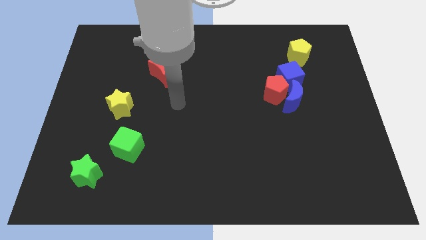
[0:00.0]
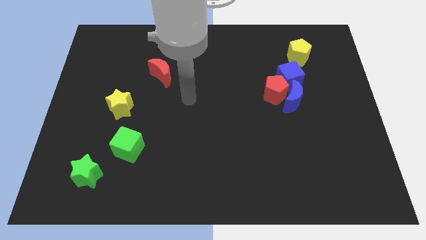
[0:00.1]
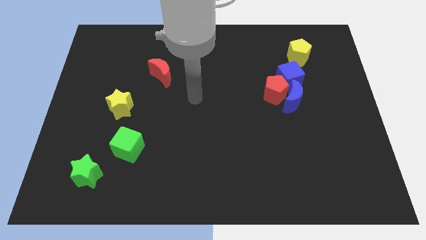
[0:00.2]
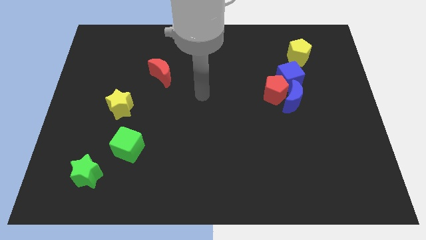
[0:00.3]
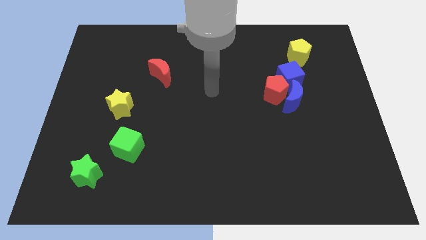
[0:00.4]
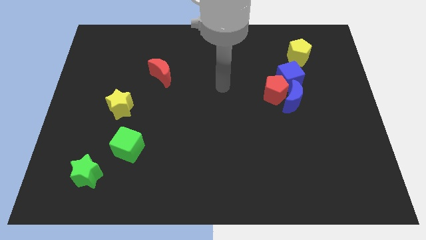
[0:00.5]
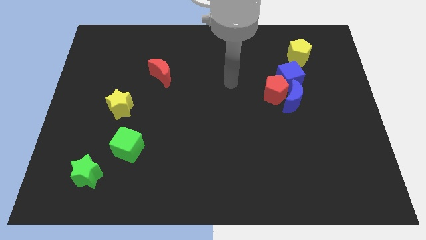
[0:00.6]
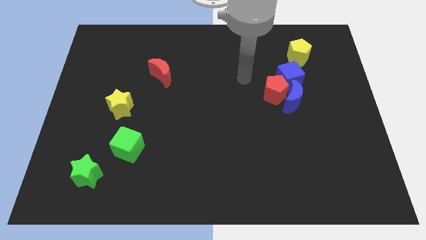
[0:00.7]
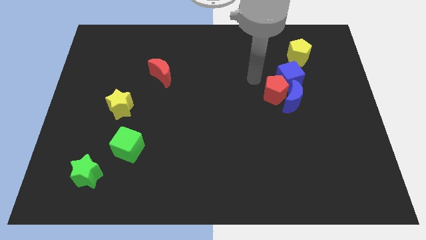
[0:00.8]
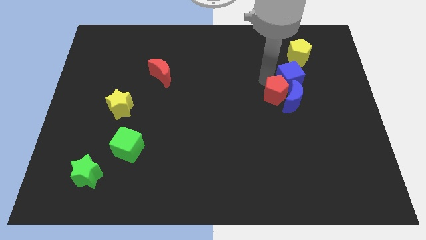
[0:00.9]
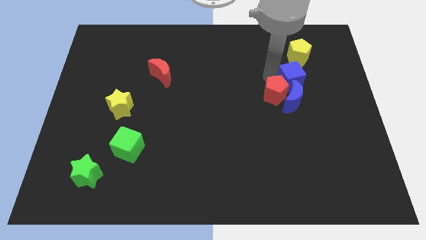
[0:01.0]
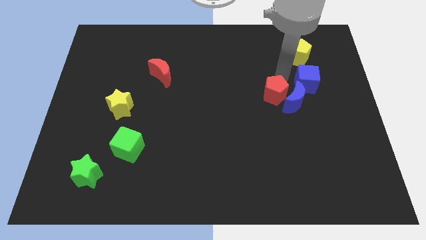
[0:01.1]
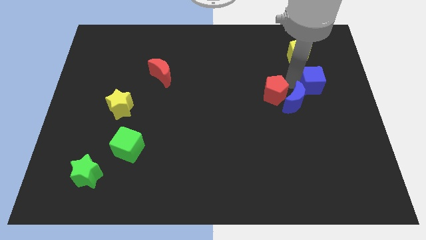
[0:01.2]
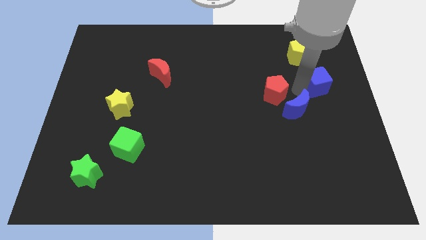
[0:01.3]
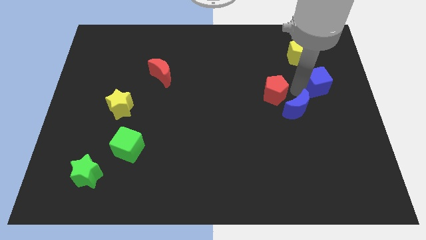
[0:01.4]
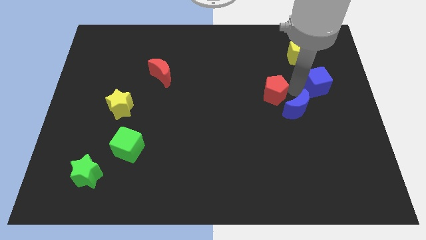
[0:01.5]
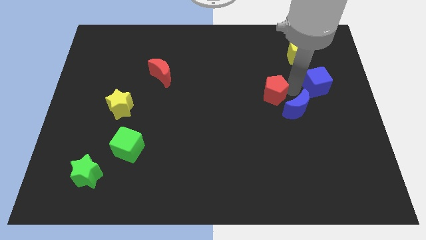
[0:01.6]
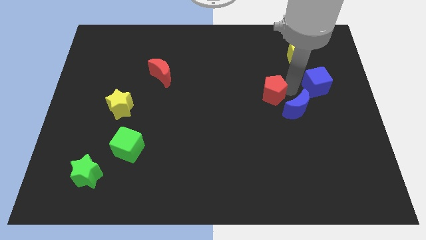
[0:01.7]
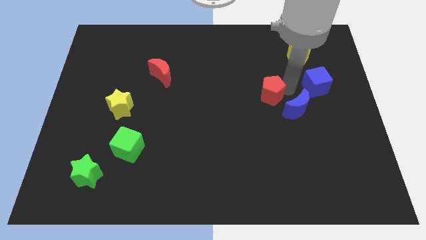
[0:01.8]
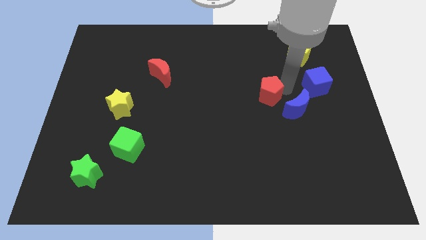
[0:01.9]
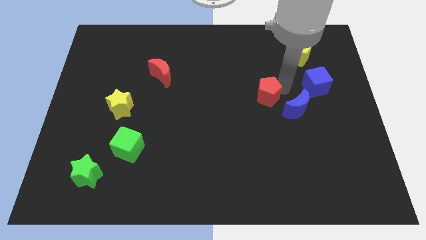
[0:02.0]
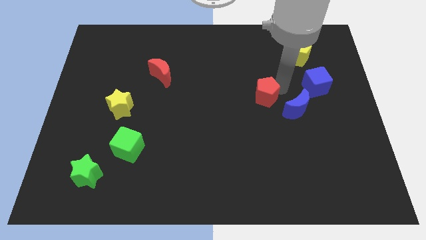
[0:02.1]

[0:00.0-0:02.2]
pull the red pentagon apart from the blue moon and blue cube

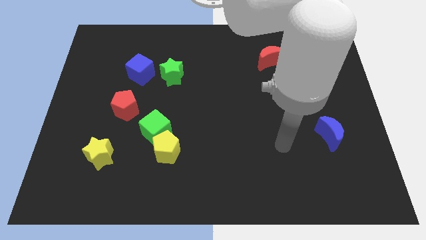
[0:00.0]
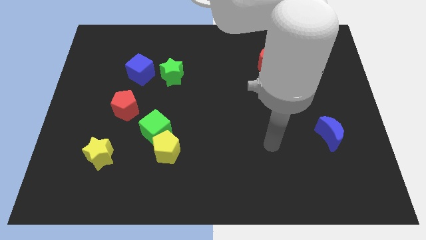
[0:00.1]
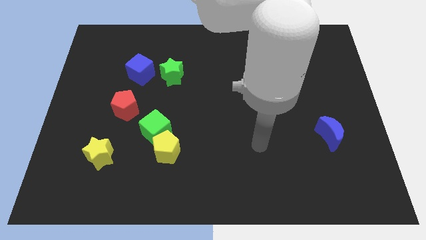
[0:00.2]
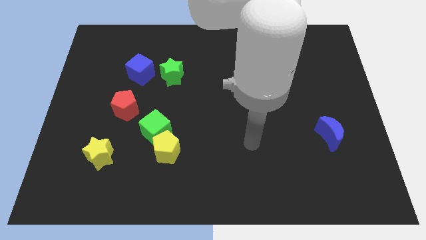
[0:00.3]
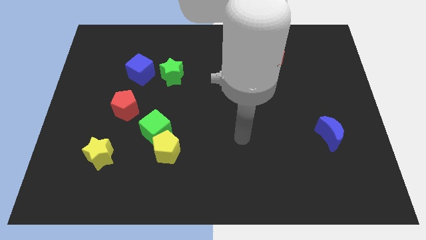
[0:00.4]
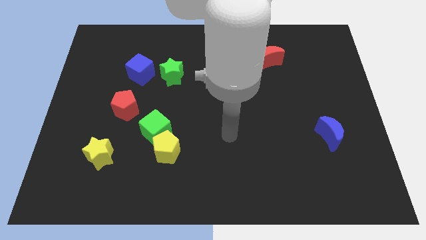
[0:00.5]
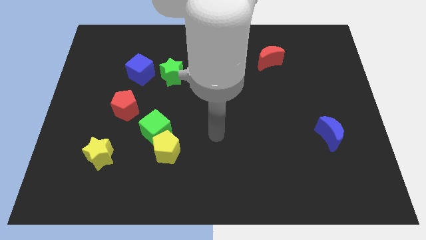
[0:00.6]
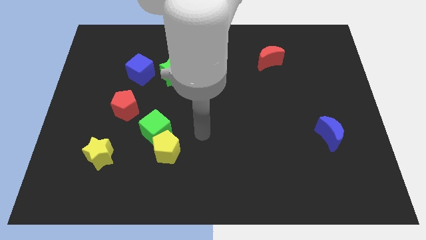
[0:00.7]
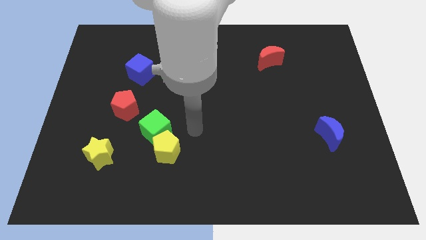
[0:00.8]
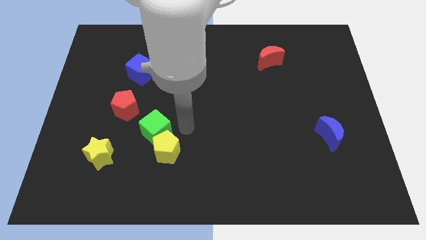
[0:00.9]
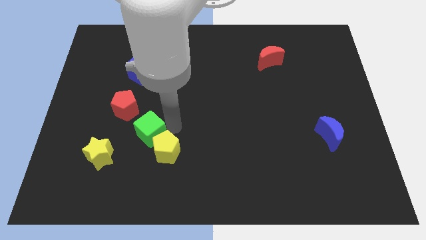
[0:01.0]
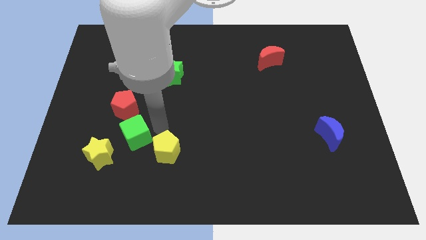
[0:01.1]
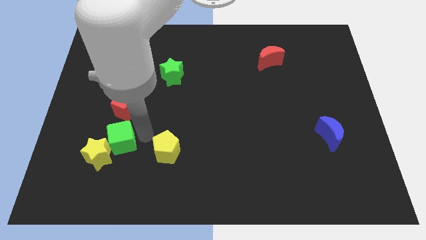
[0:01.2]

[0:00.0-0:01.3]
pull the yellow pentagon apart from the green cube

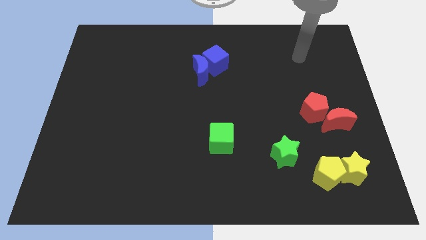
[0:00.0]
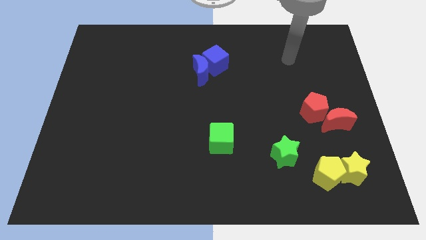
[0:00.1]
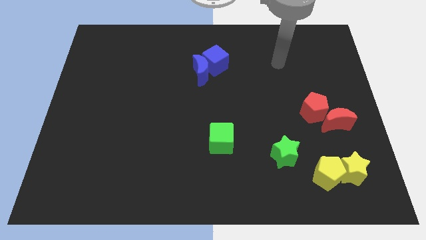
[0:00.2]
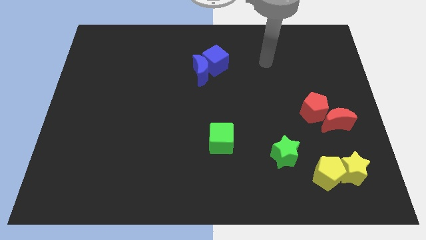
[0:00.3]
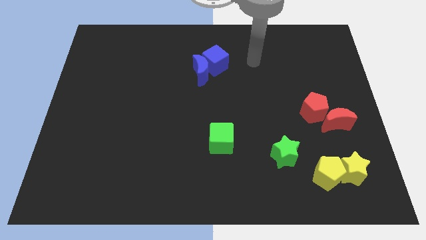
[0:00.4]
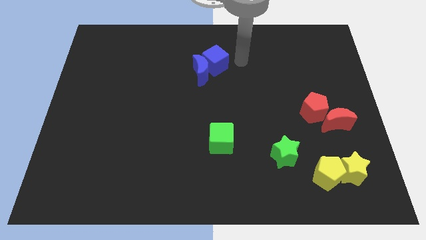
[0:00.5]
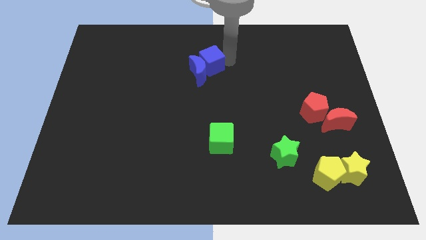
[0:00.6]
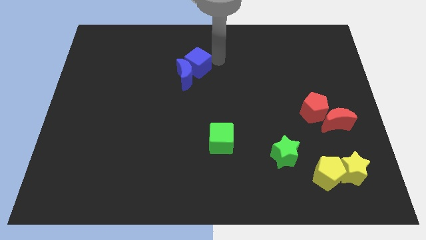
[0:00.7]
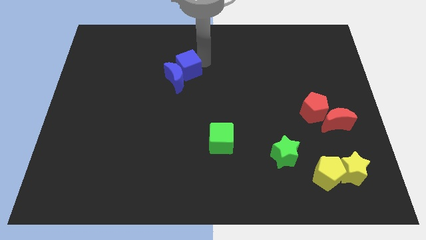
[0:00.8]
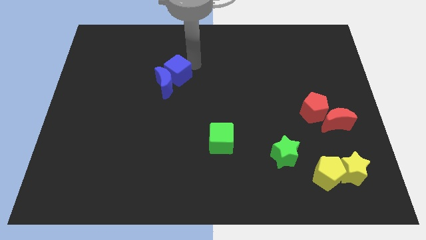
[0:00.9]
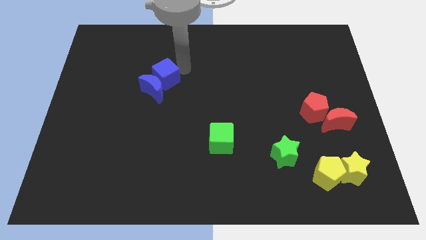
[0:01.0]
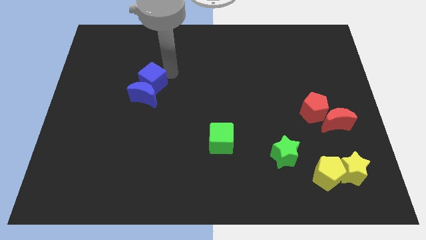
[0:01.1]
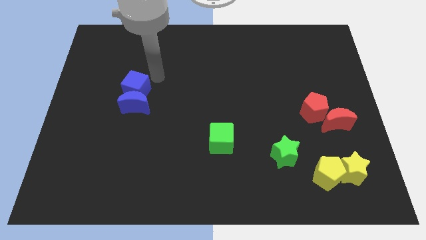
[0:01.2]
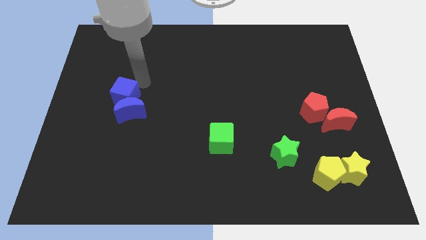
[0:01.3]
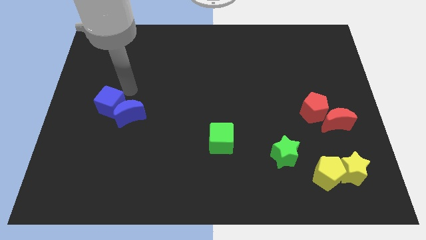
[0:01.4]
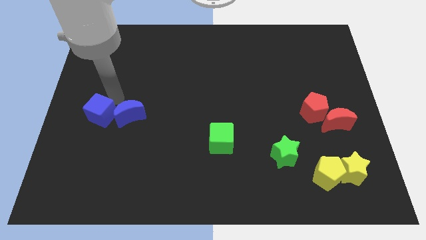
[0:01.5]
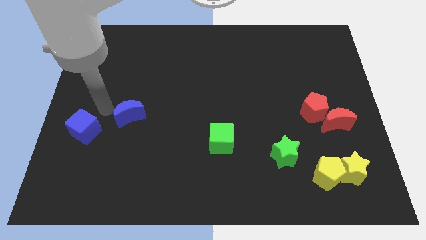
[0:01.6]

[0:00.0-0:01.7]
move the blue moon away from the blue cube

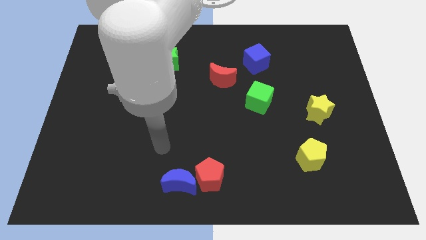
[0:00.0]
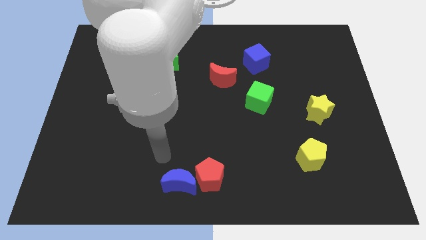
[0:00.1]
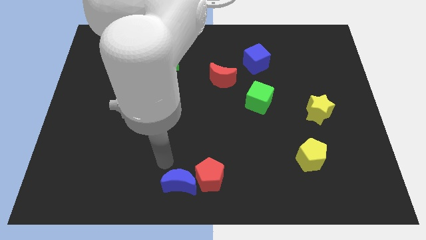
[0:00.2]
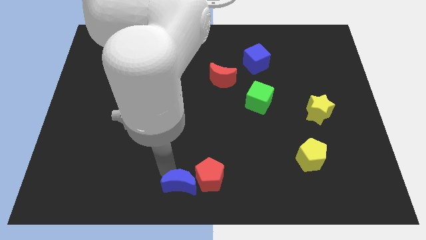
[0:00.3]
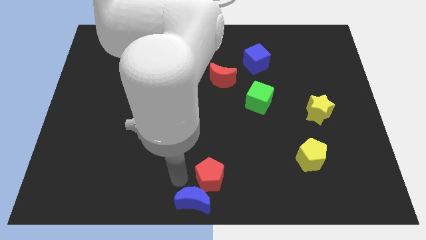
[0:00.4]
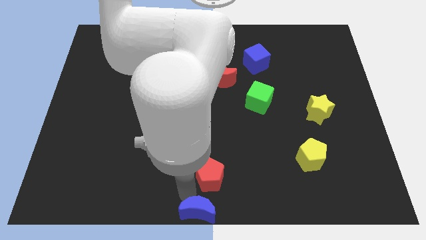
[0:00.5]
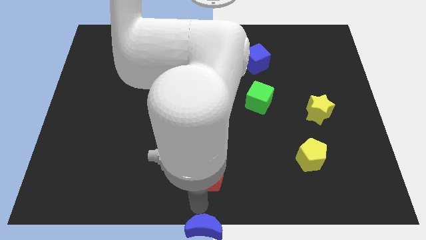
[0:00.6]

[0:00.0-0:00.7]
move the red pentagon away from the blue moon

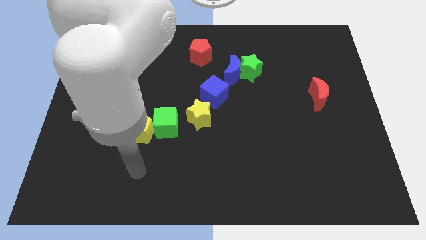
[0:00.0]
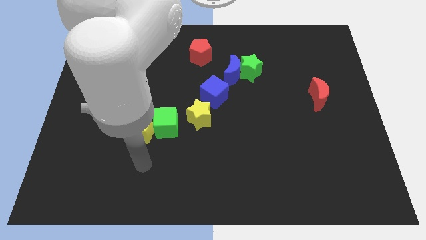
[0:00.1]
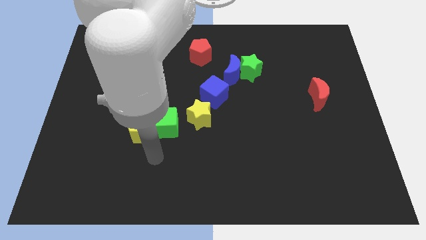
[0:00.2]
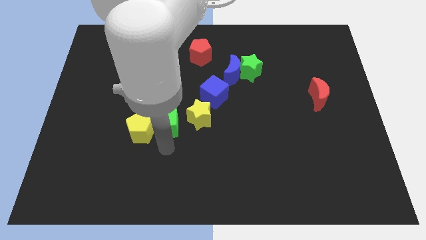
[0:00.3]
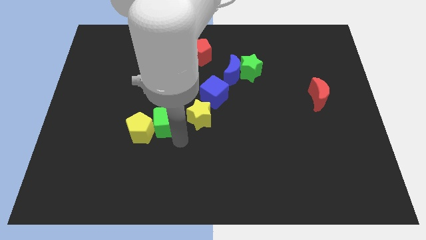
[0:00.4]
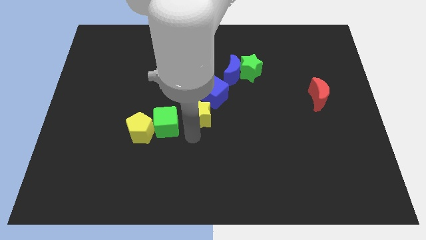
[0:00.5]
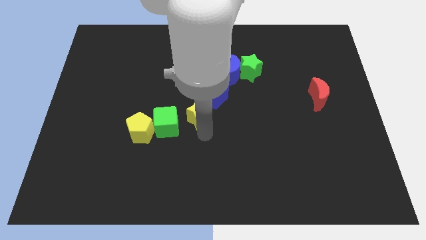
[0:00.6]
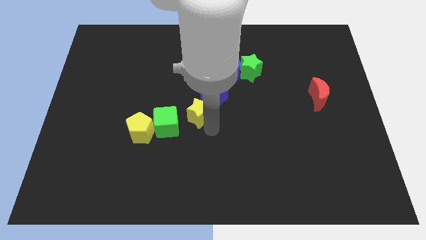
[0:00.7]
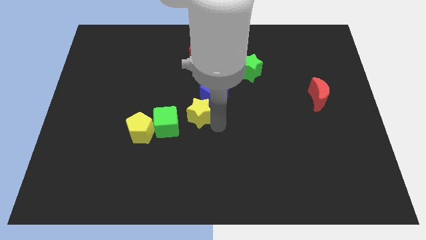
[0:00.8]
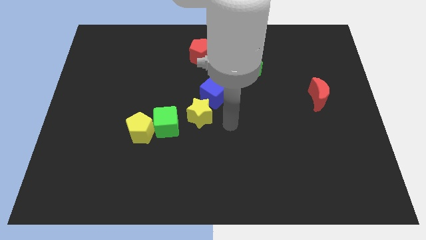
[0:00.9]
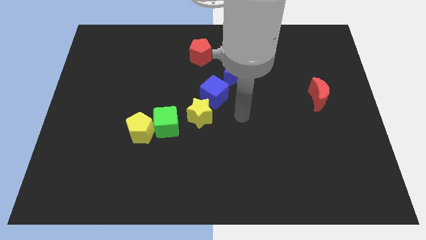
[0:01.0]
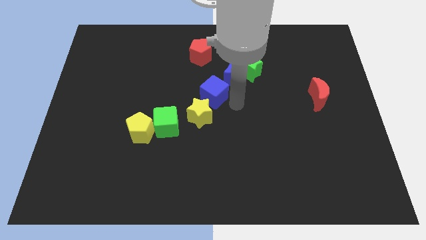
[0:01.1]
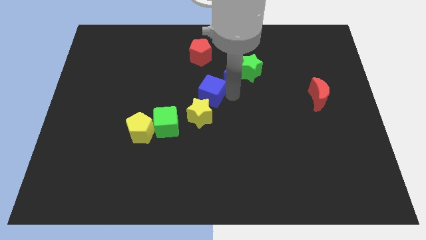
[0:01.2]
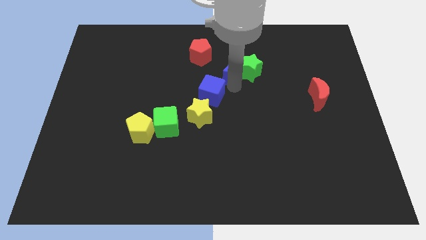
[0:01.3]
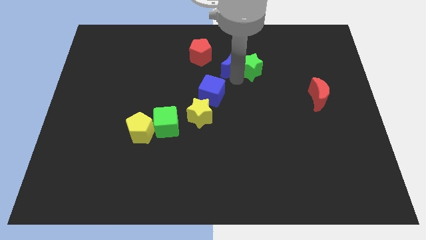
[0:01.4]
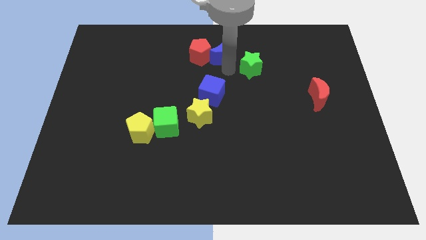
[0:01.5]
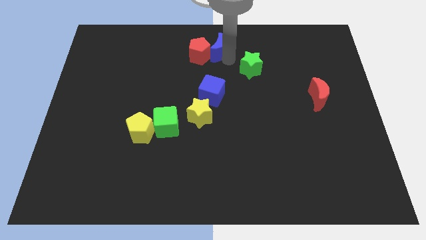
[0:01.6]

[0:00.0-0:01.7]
move the green star away from the blue moon

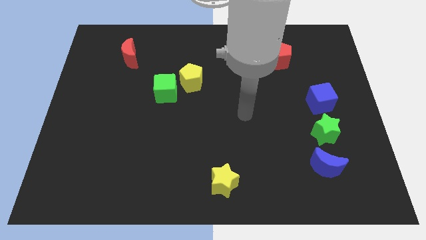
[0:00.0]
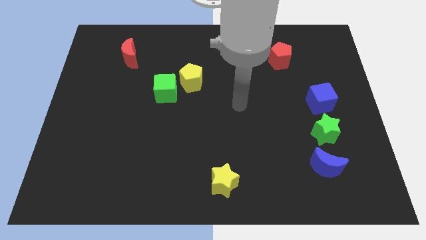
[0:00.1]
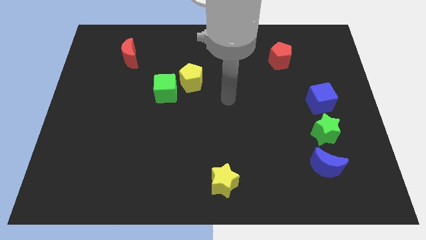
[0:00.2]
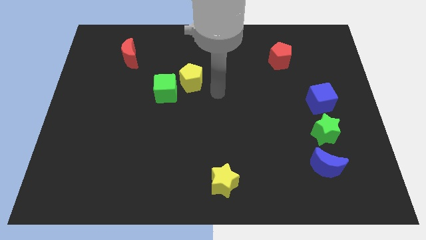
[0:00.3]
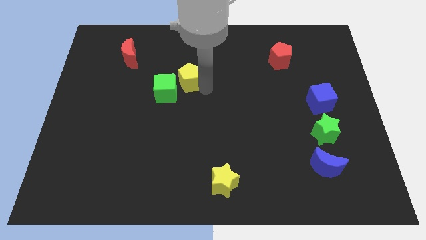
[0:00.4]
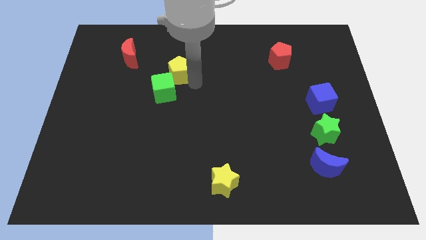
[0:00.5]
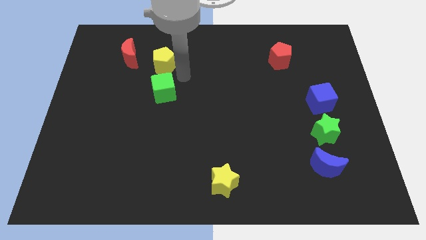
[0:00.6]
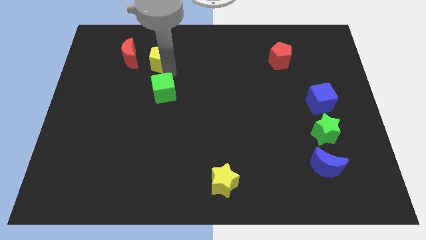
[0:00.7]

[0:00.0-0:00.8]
separate the green cube from the yellow pentagon

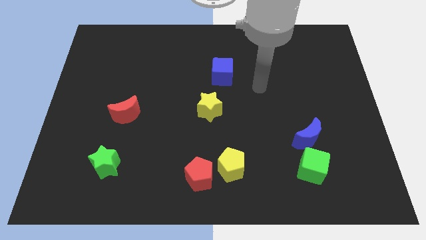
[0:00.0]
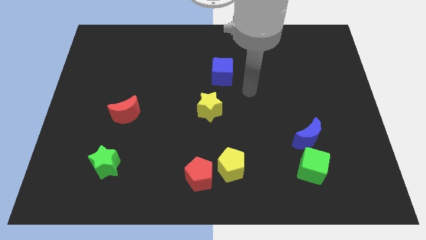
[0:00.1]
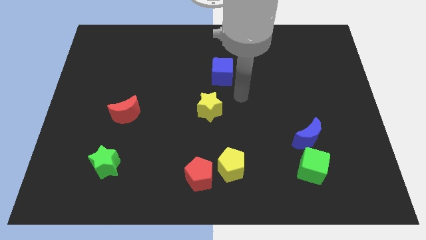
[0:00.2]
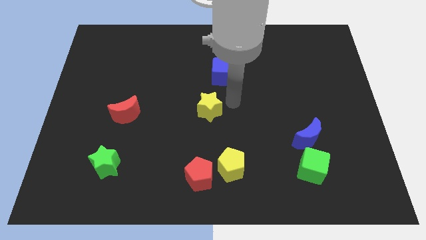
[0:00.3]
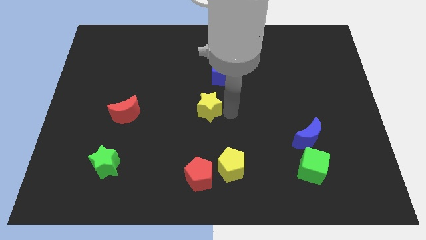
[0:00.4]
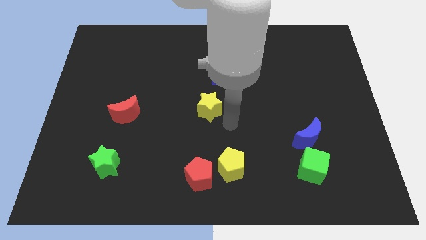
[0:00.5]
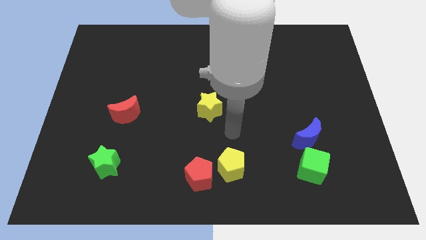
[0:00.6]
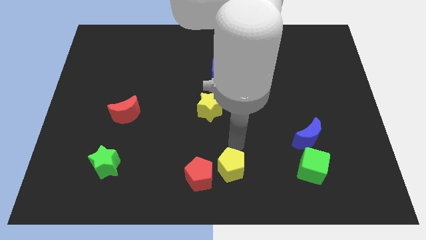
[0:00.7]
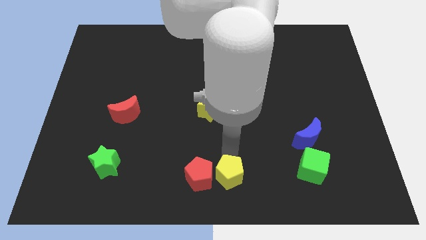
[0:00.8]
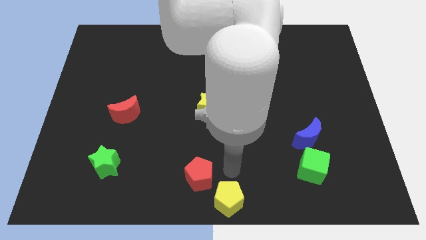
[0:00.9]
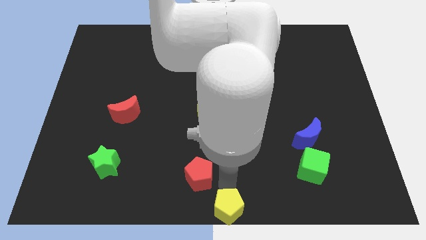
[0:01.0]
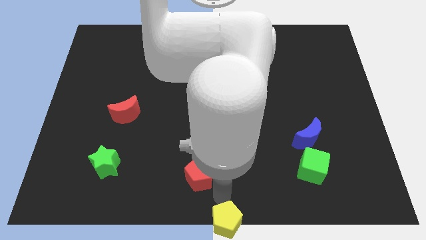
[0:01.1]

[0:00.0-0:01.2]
move the red pentagon away from the yellow pentagon
